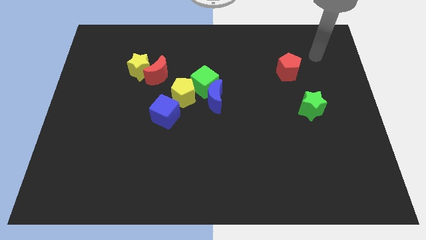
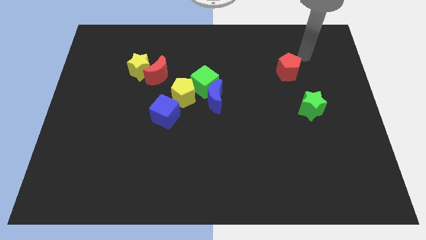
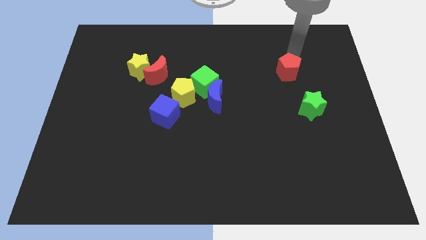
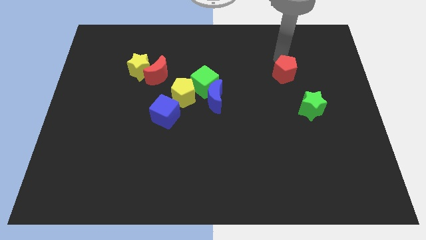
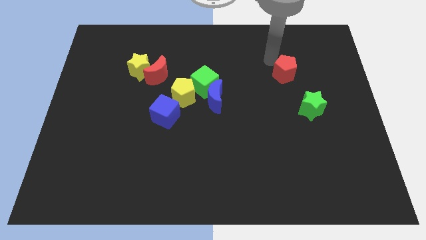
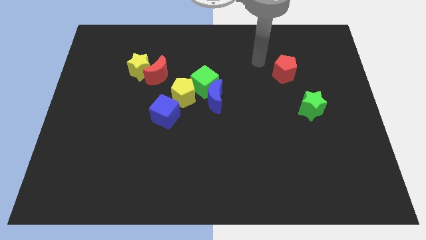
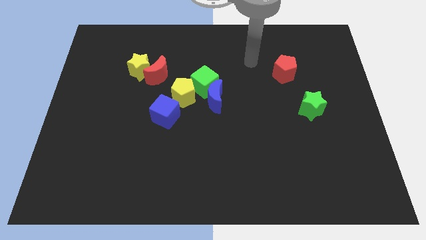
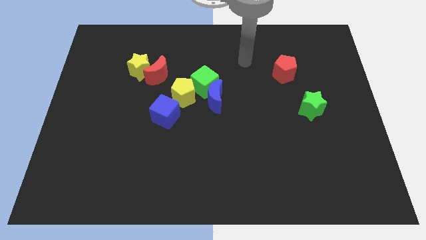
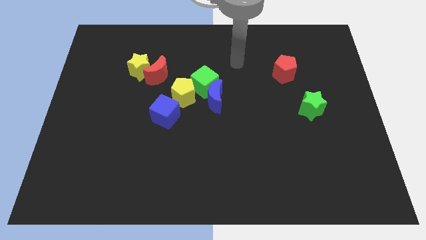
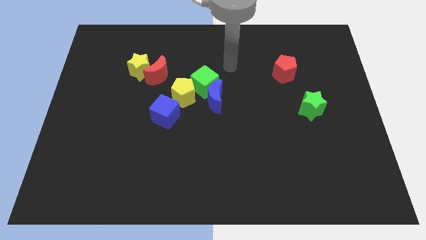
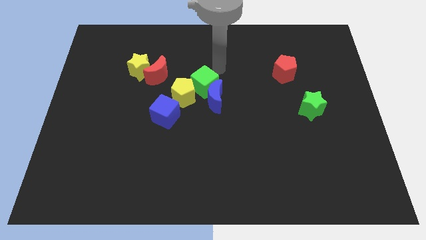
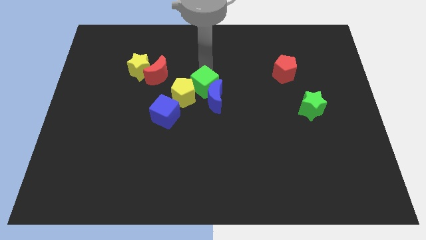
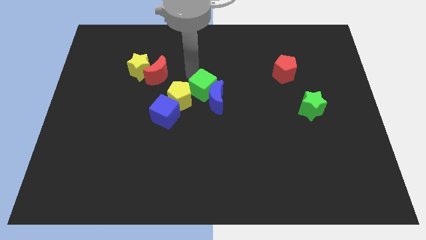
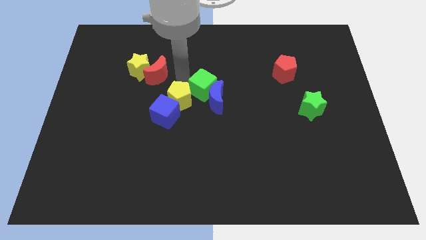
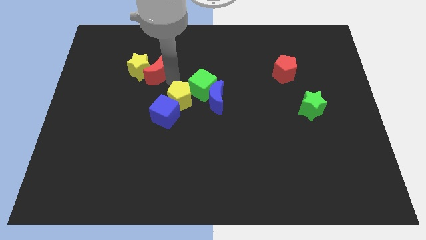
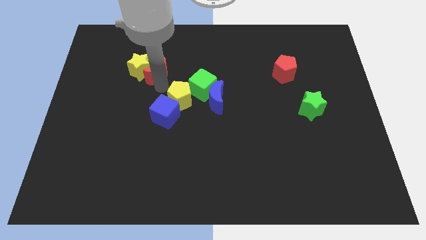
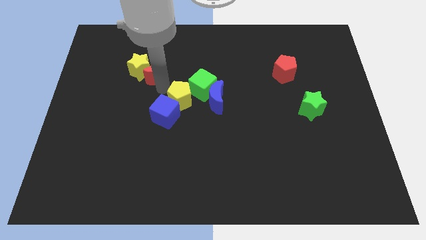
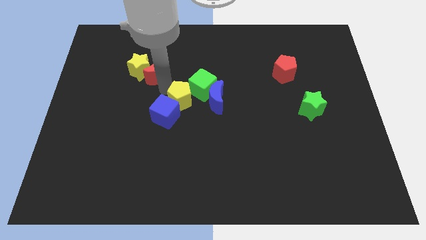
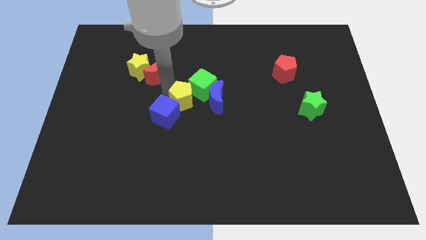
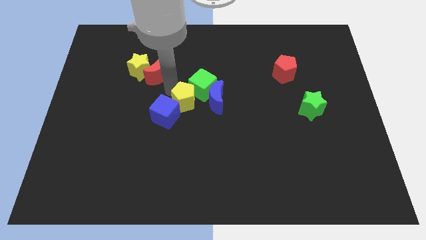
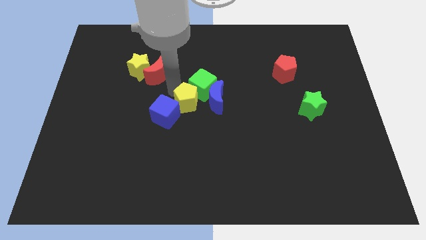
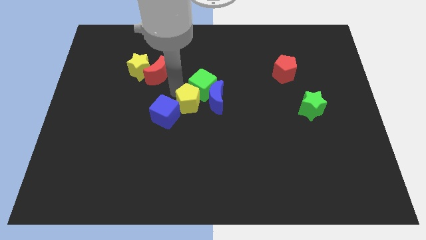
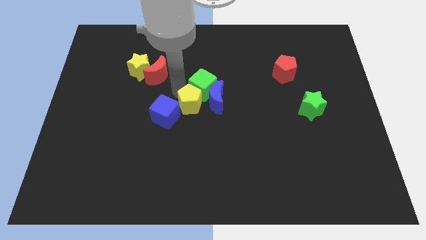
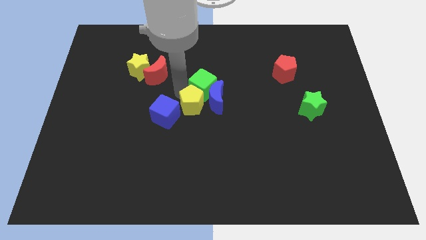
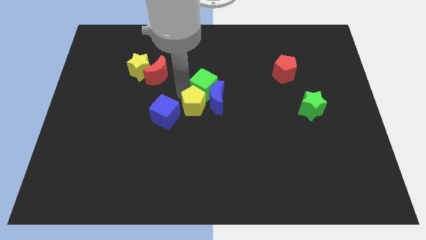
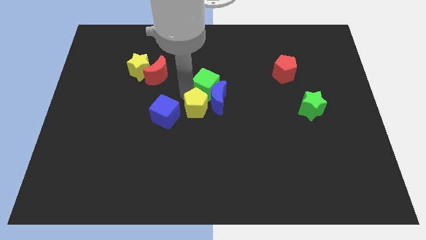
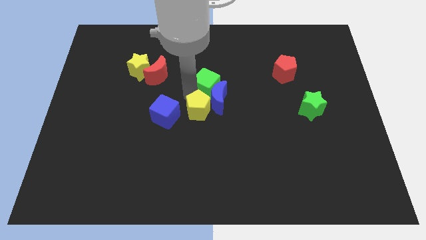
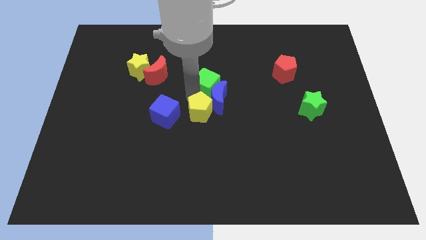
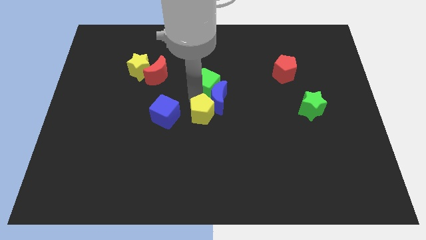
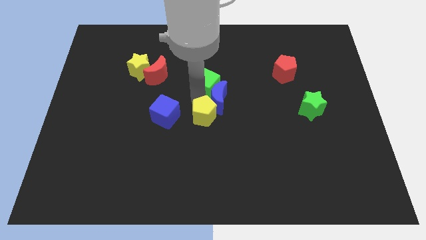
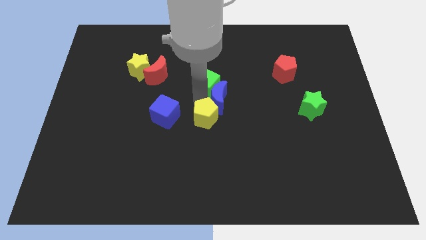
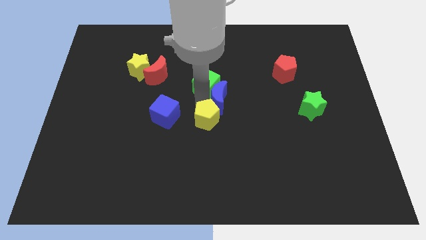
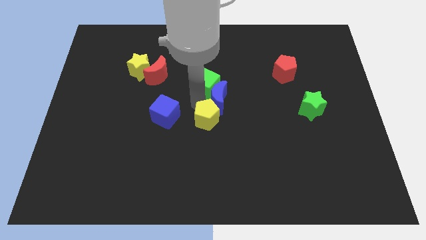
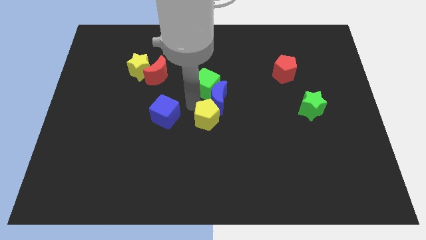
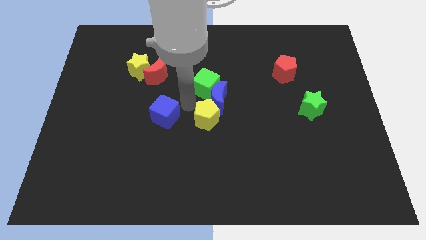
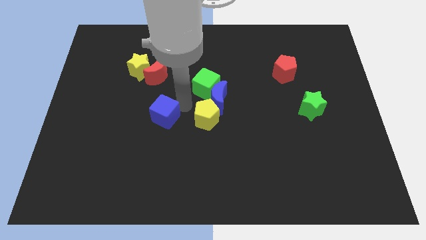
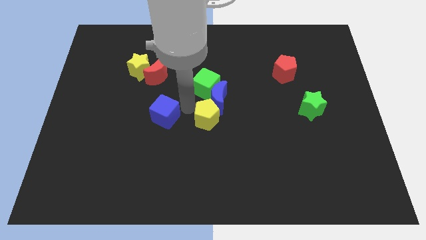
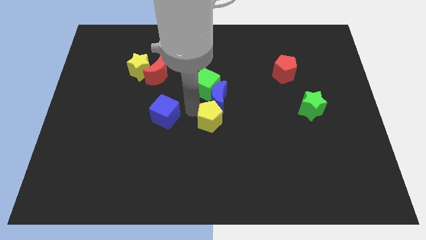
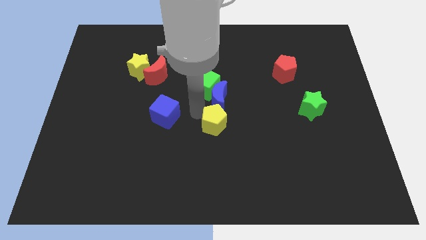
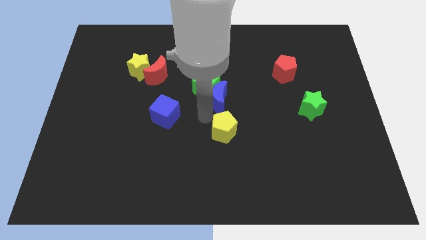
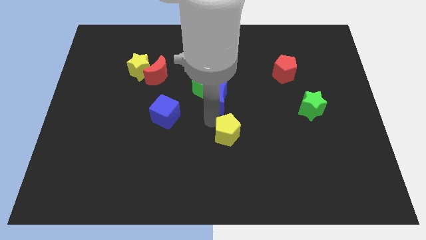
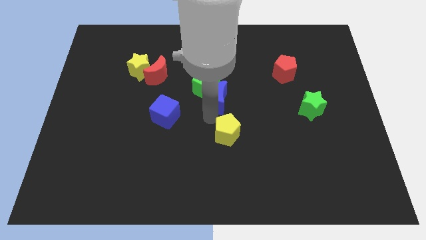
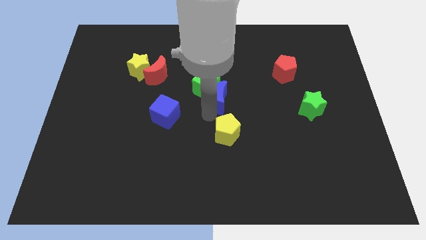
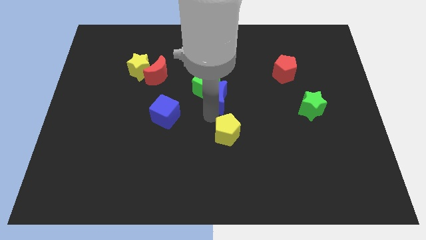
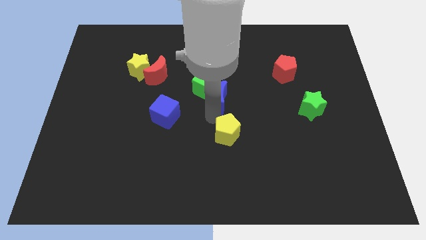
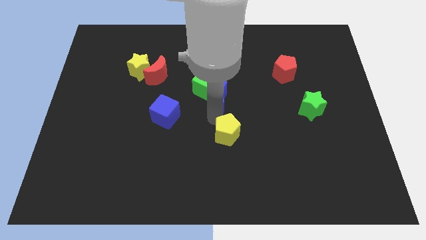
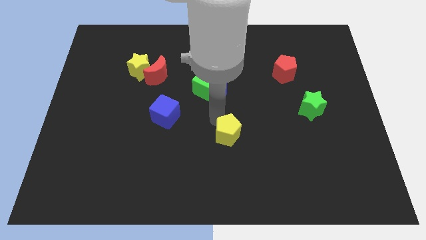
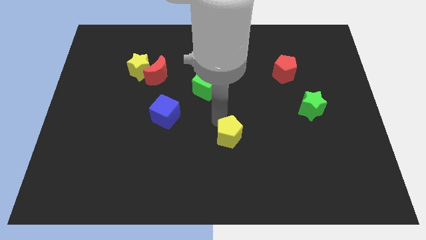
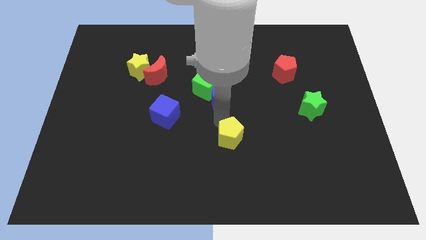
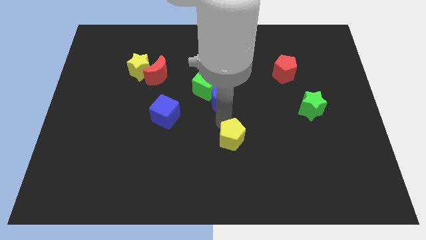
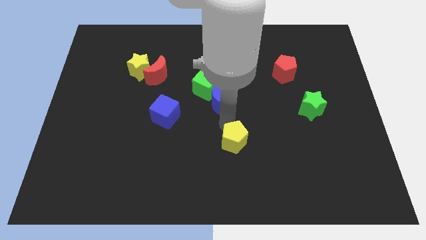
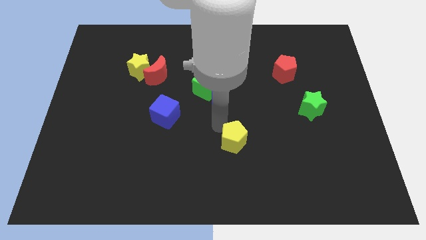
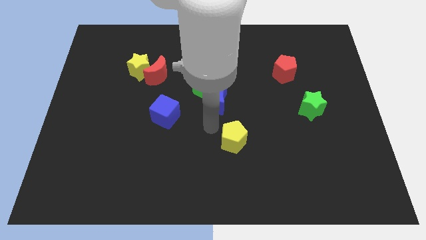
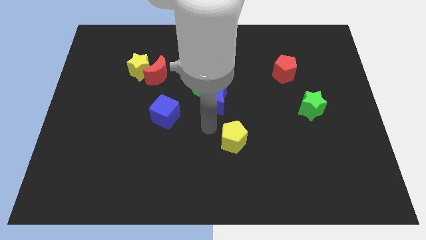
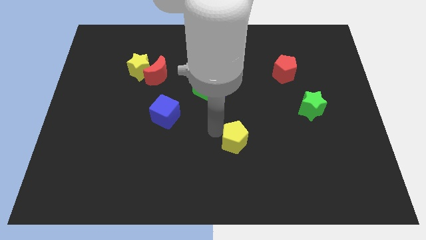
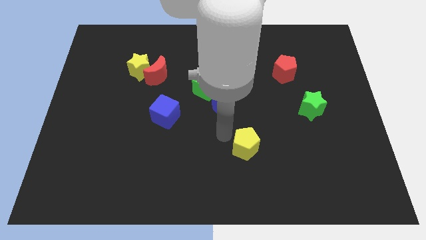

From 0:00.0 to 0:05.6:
push the yellow pentagon diagonally downwards and right

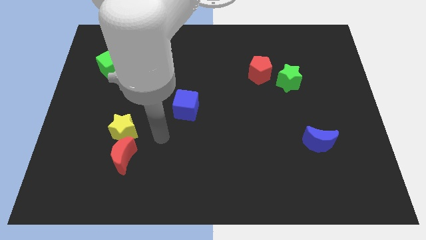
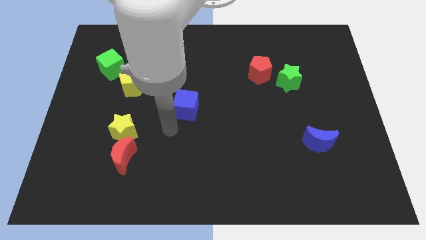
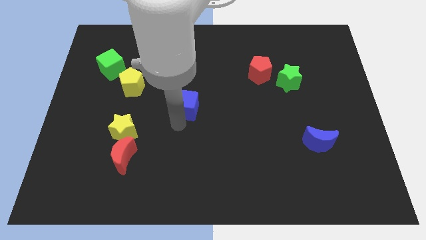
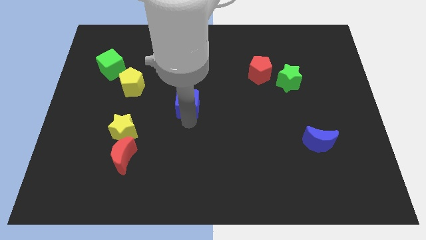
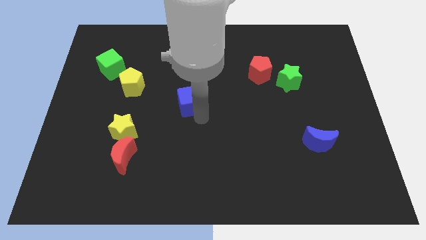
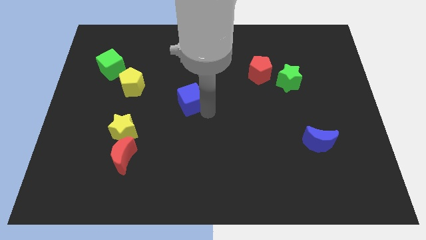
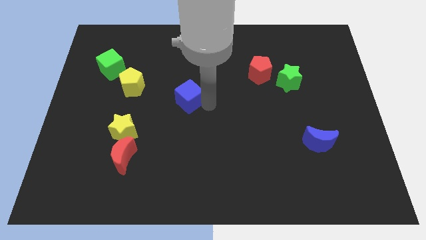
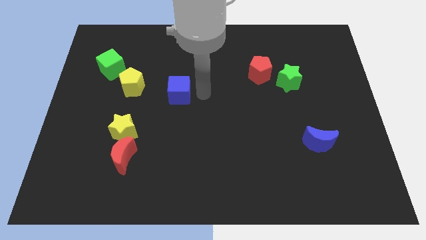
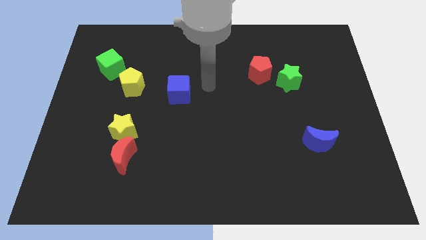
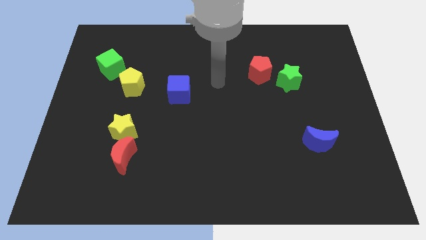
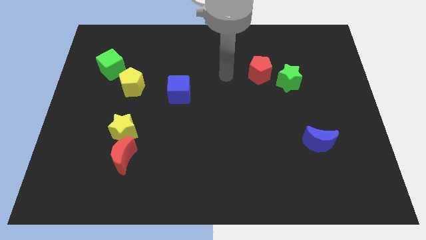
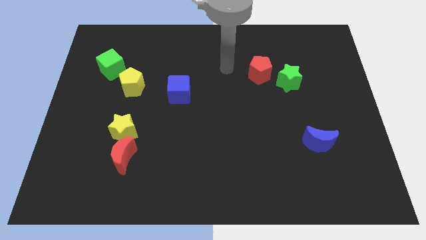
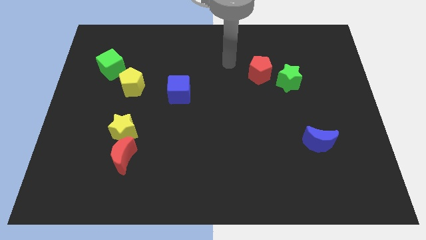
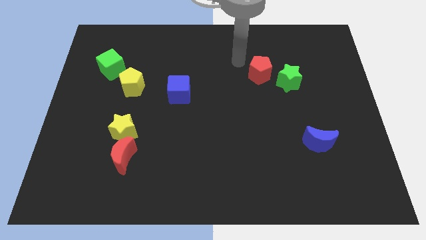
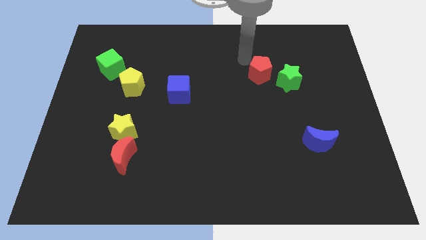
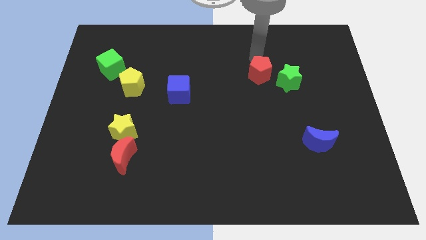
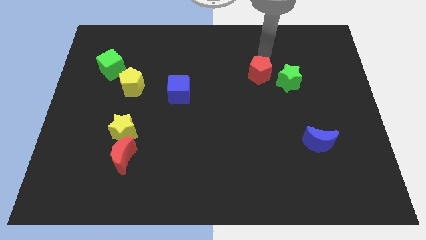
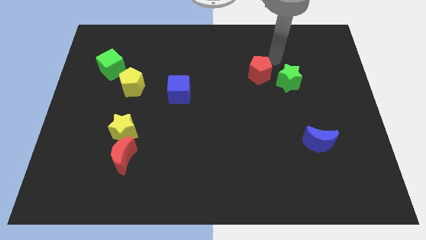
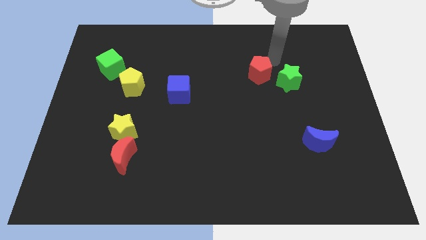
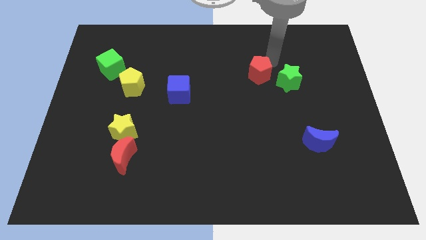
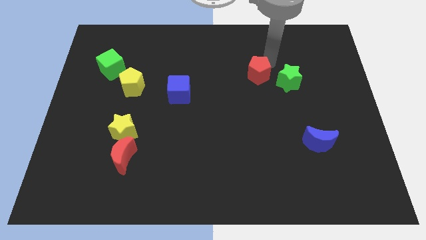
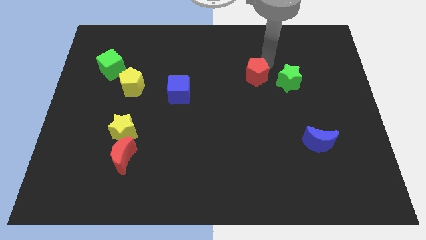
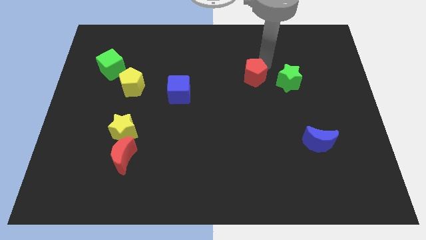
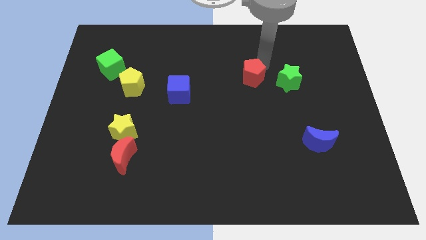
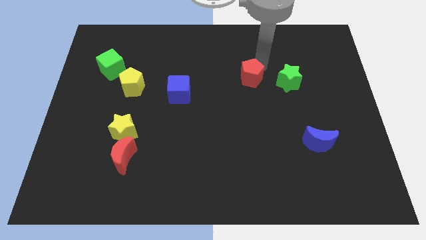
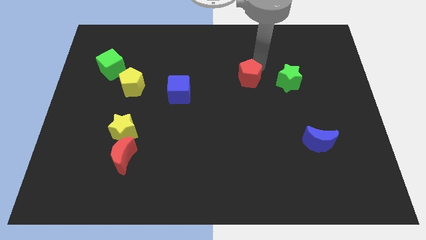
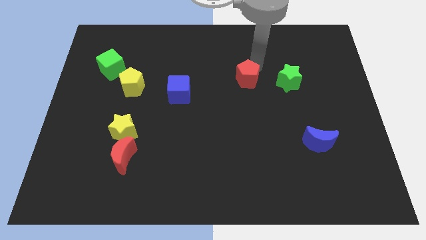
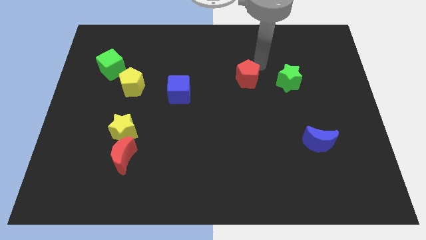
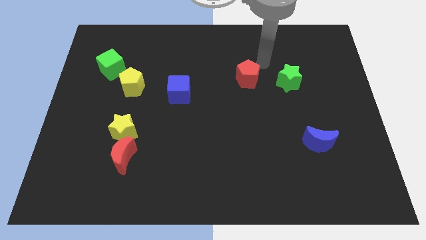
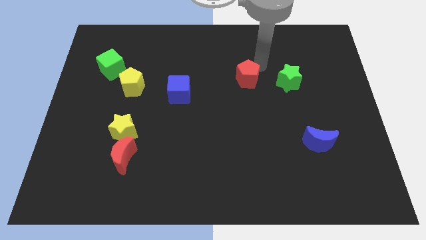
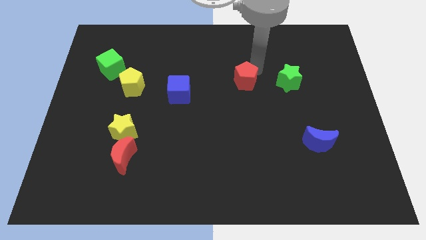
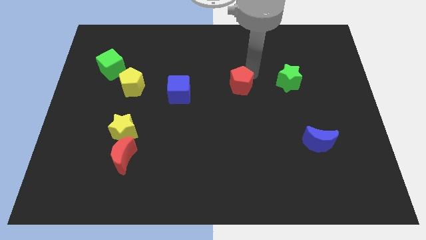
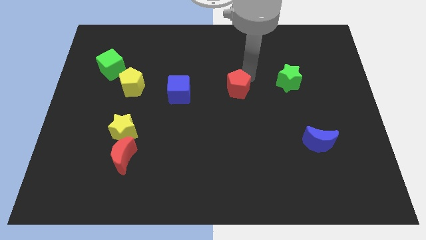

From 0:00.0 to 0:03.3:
slightly move the red pentagon downwards and to the left diagonally
